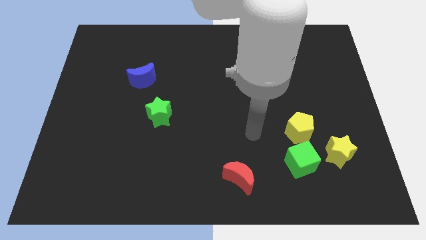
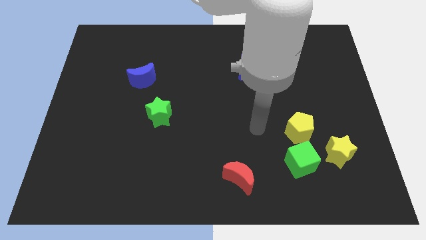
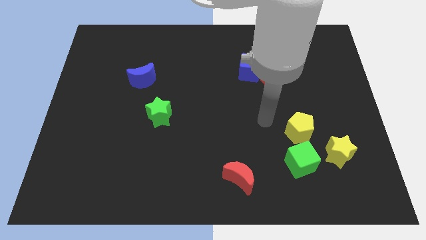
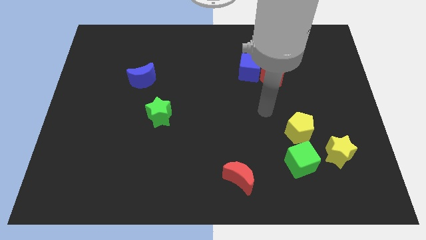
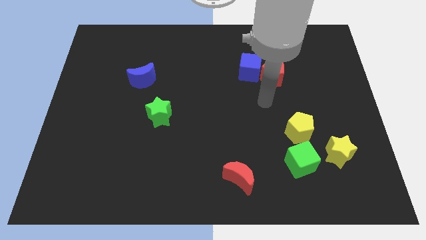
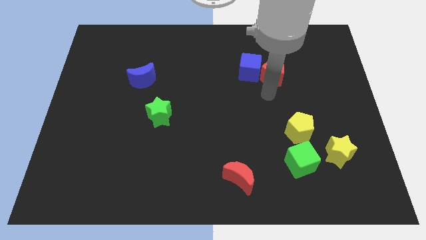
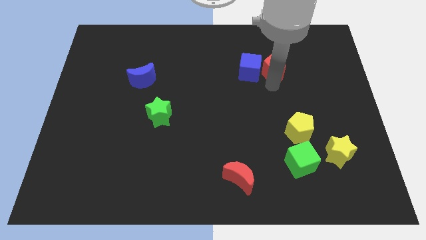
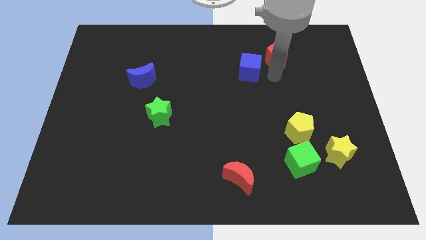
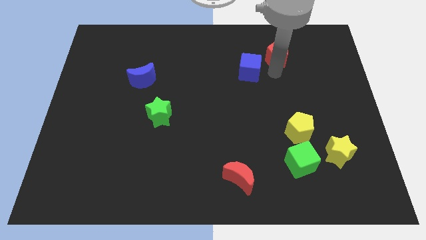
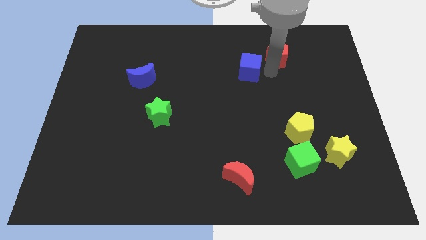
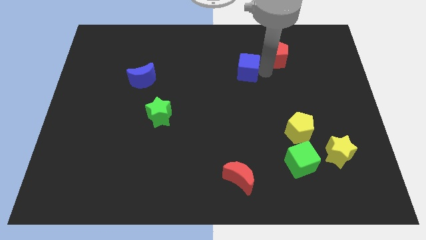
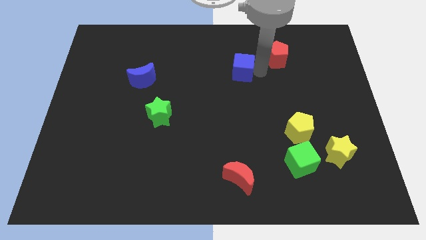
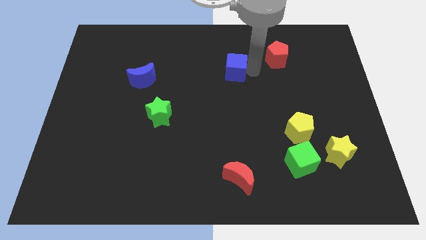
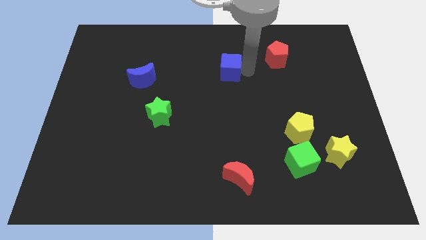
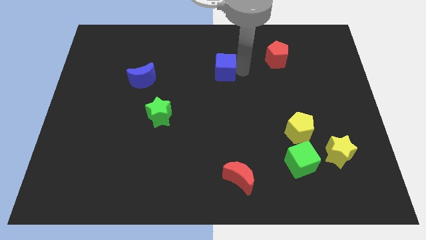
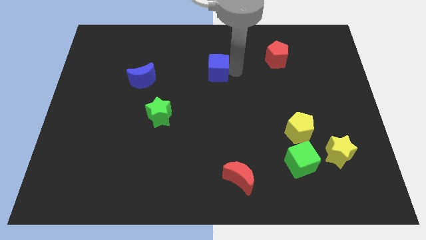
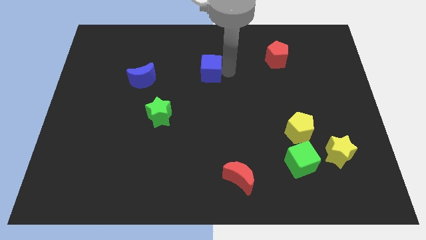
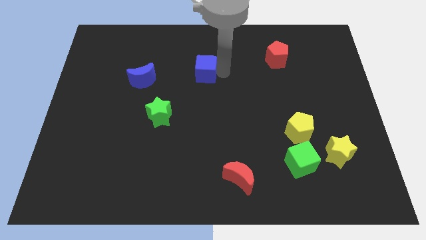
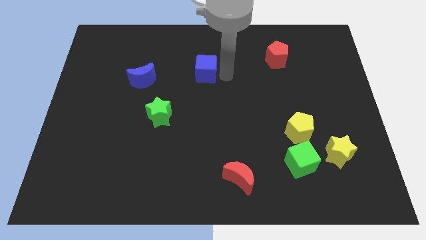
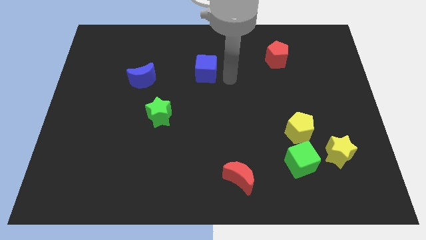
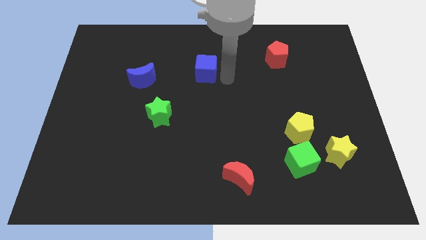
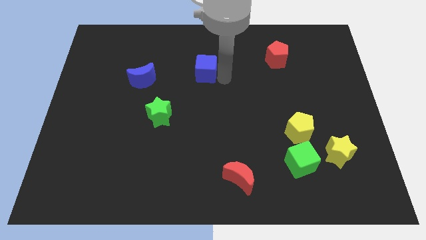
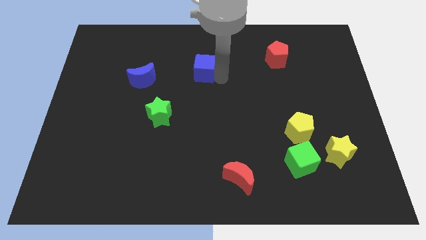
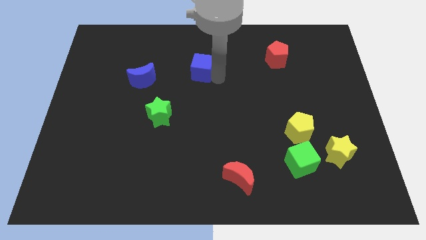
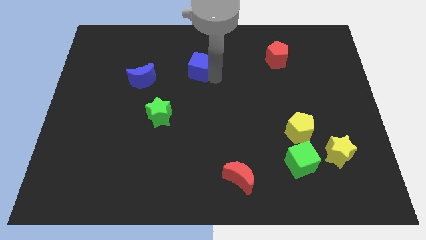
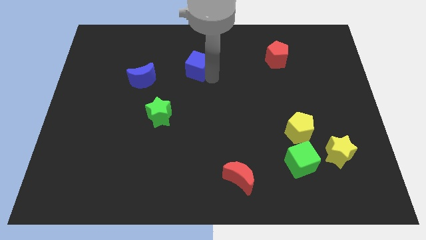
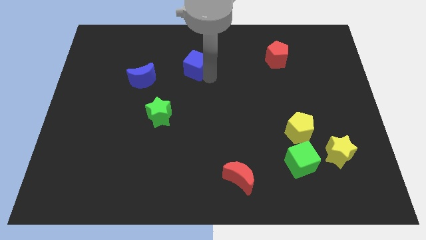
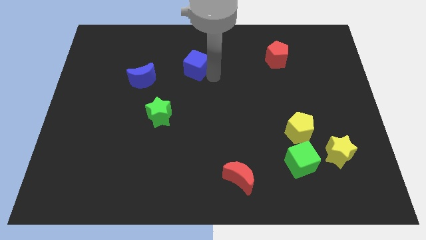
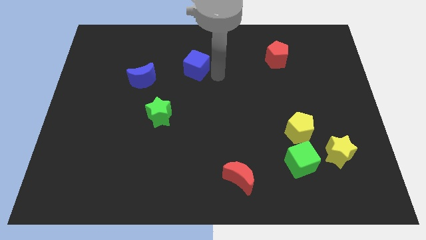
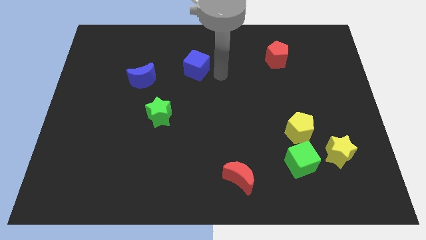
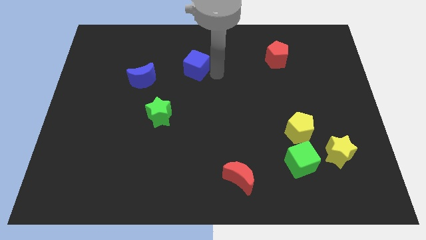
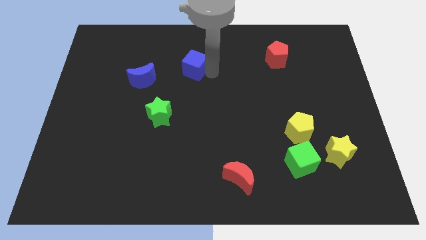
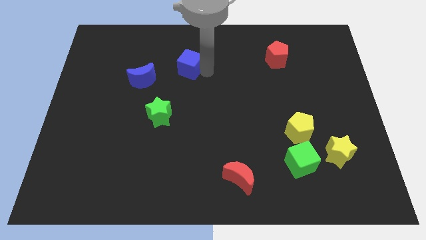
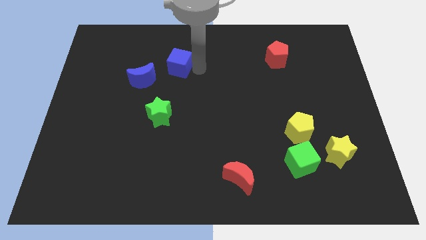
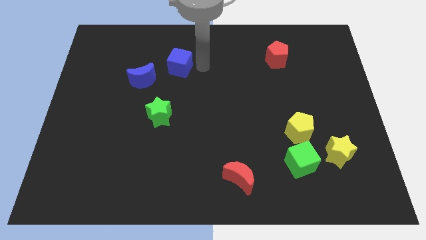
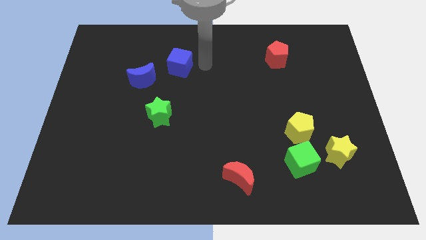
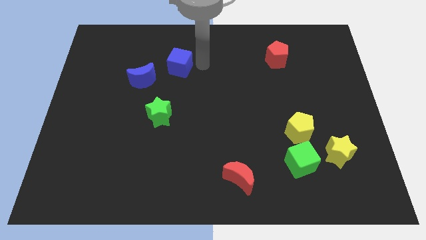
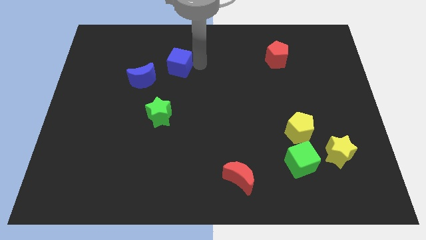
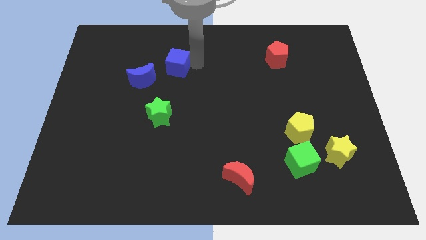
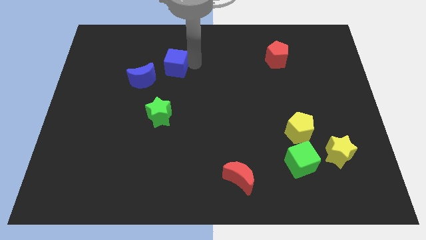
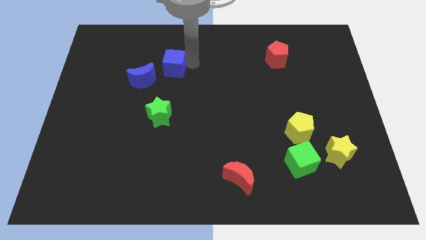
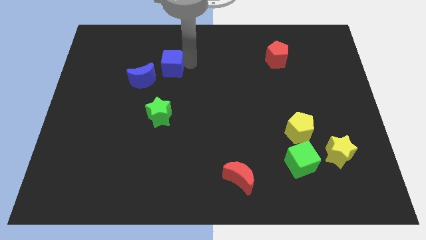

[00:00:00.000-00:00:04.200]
move the blue cube to the left

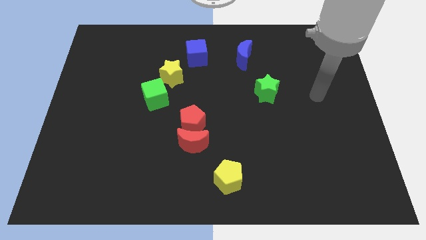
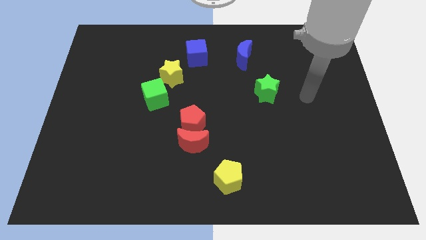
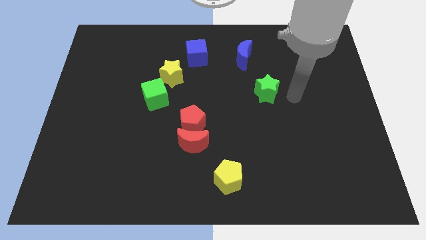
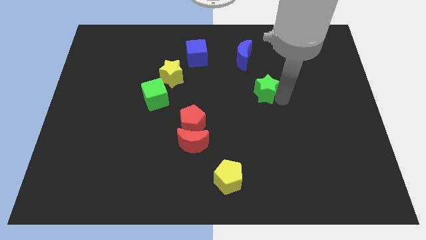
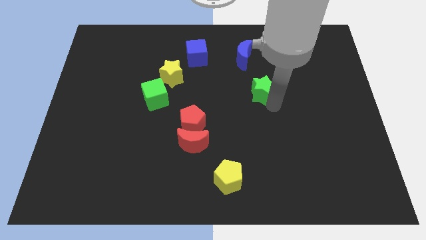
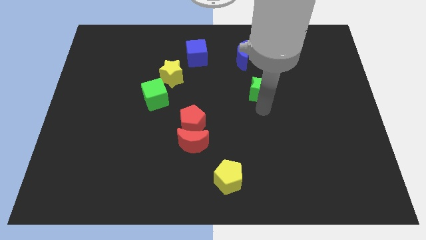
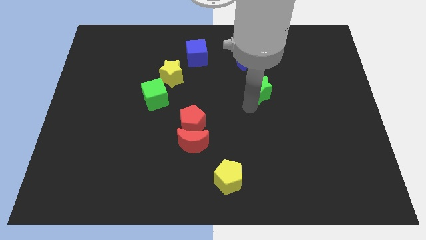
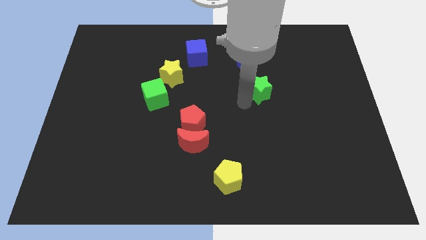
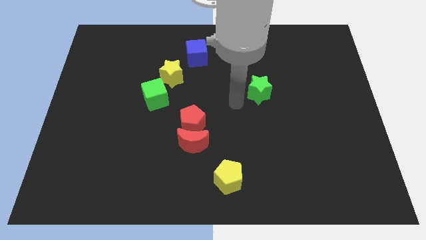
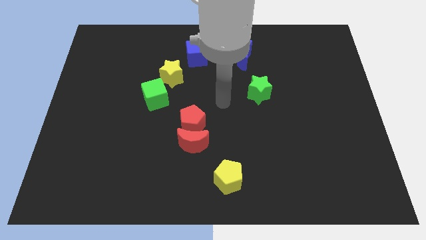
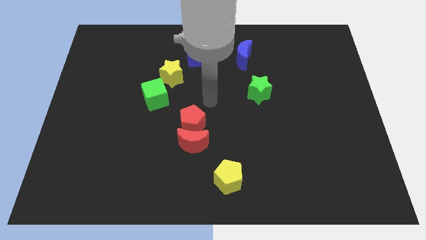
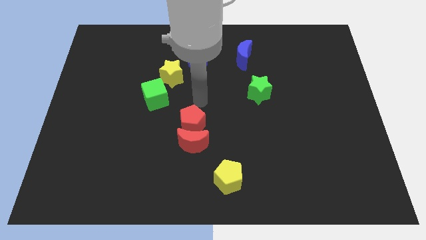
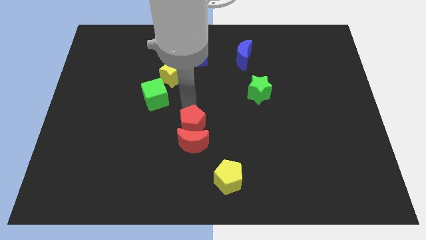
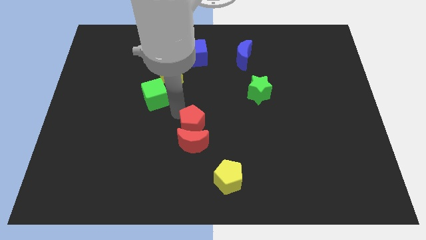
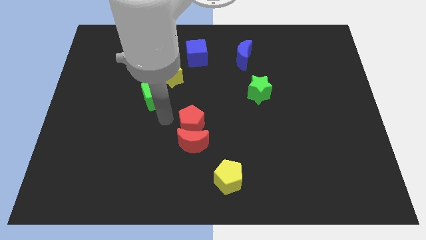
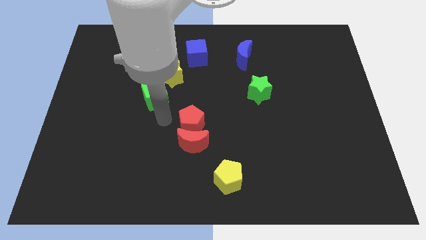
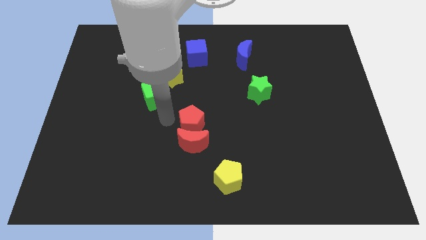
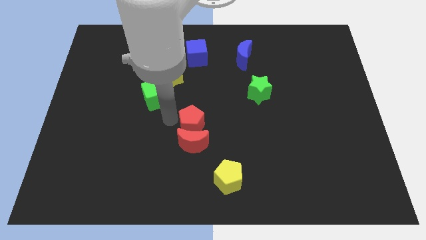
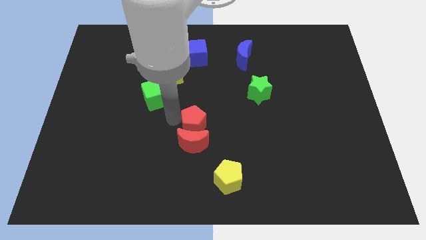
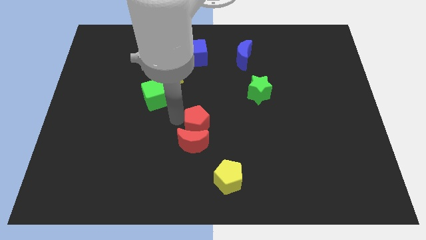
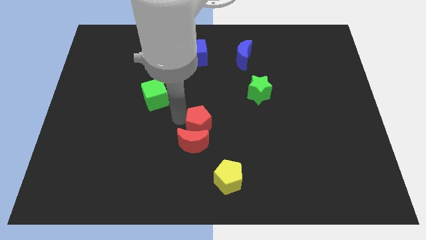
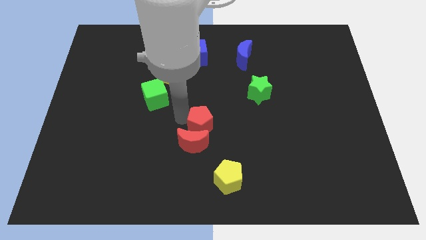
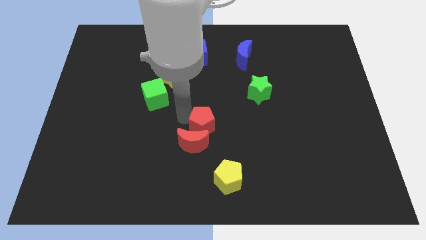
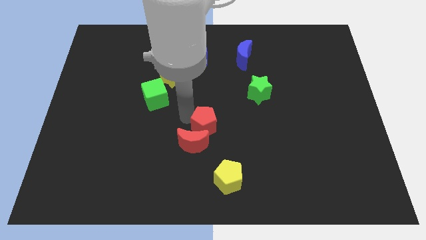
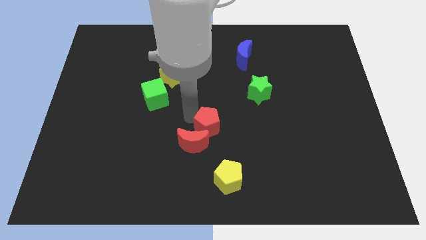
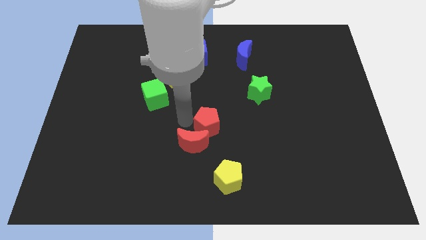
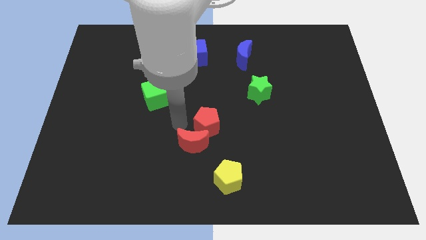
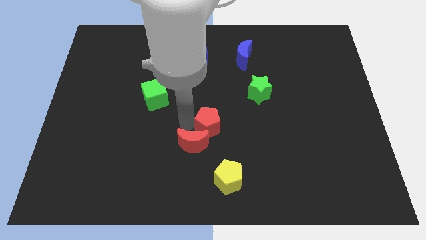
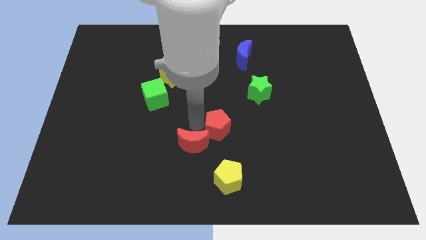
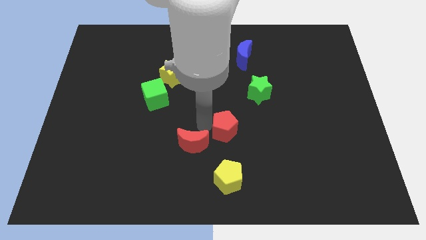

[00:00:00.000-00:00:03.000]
slightly push the red pentagon to the right

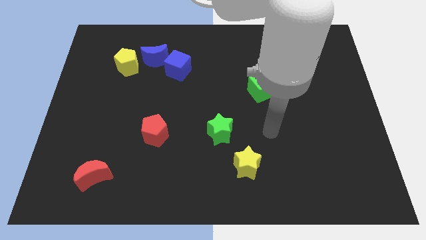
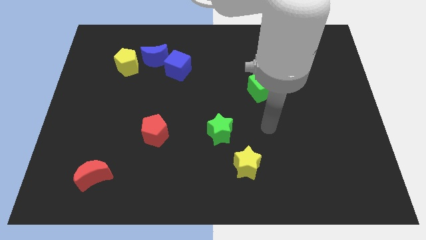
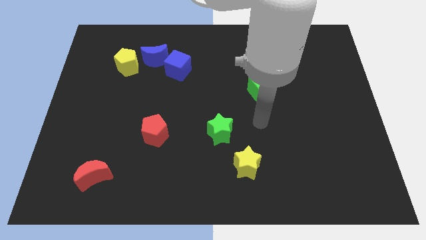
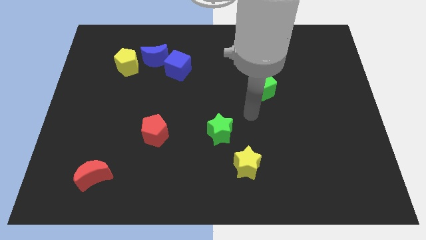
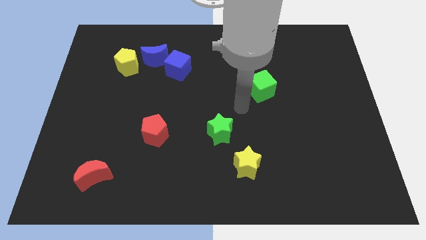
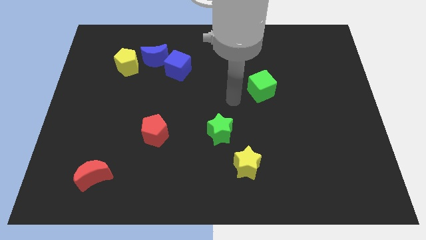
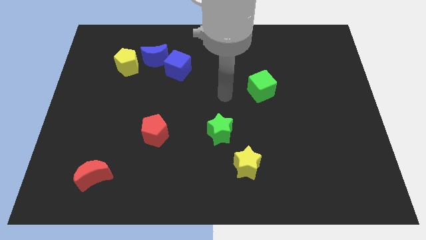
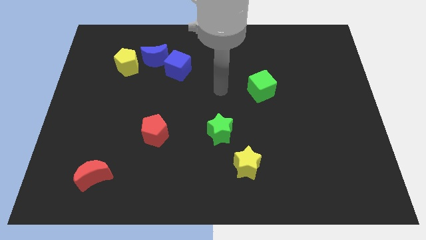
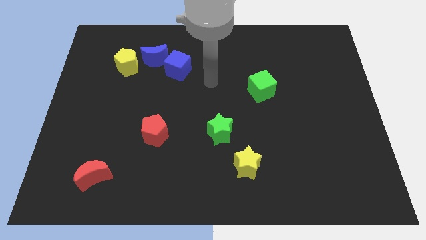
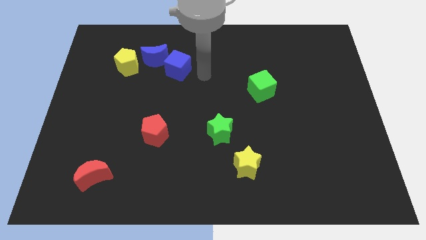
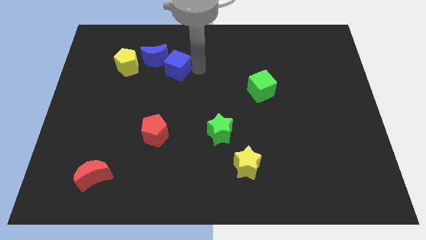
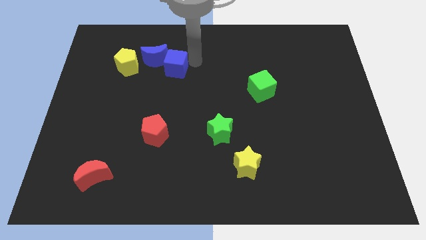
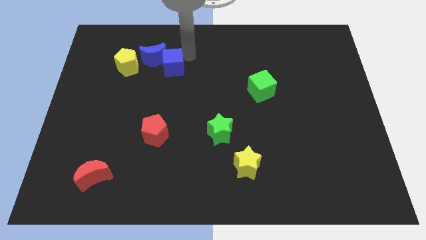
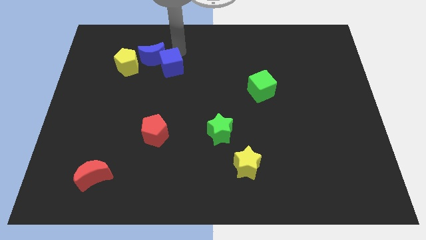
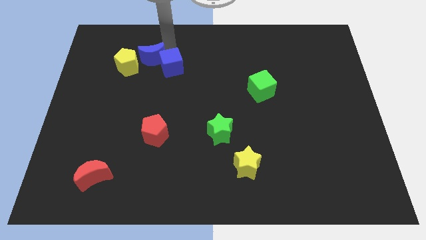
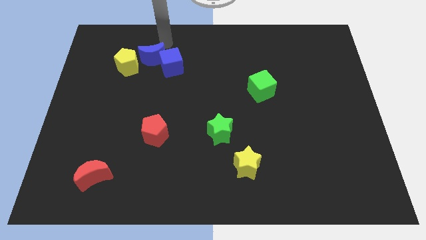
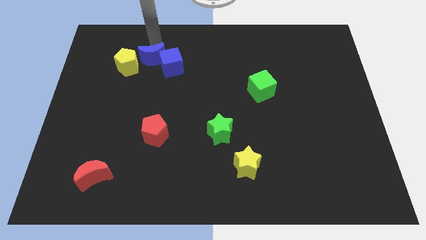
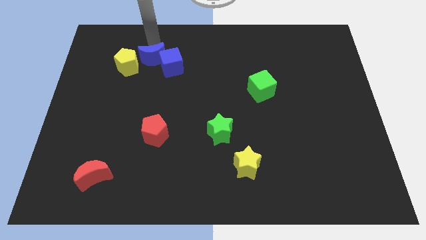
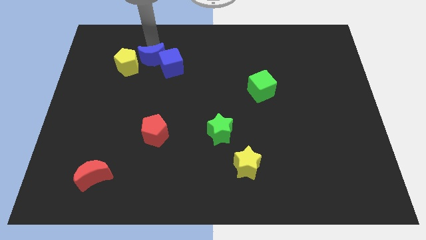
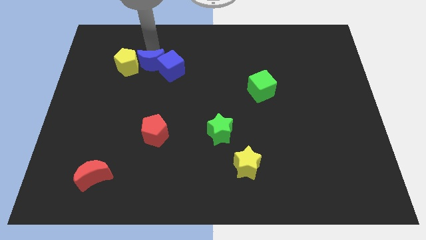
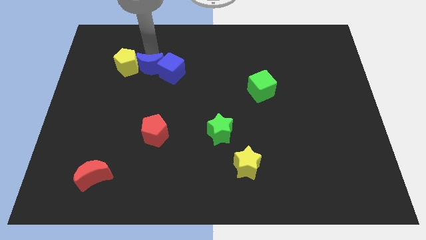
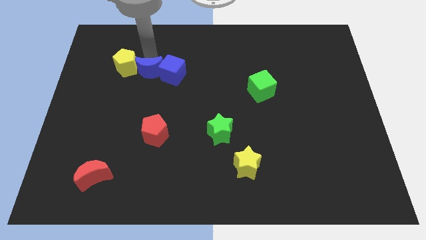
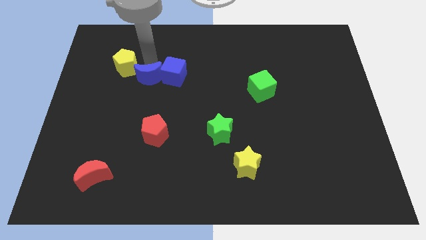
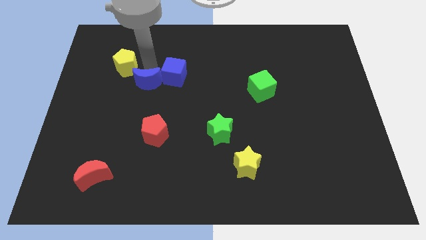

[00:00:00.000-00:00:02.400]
slide the blue moon a bit down
